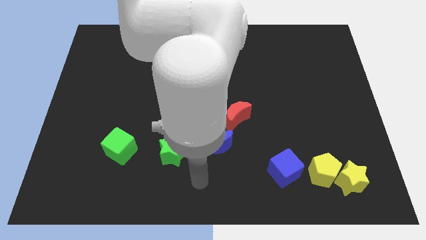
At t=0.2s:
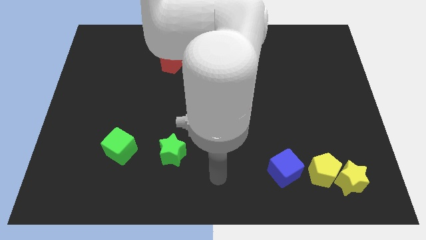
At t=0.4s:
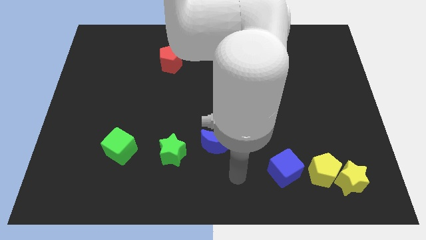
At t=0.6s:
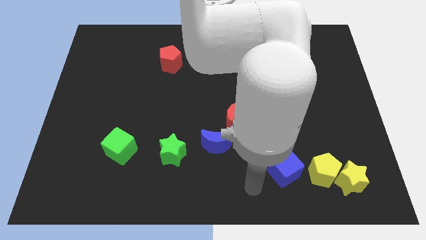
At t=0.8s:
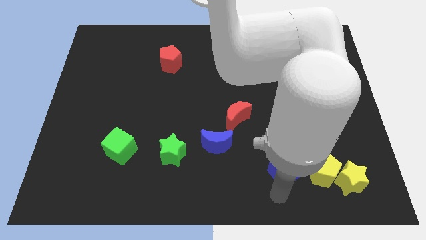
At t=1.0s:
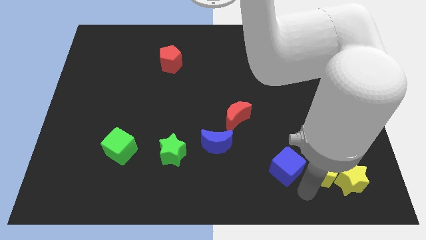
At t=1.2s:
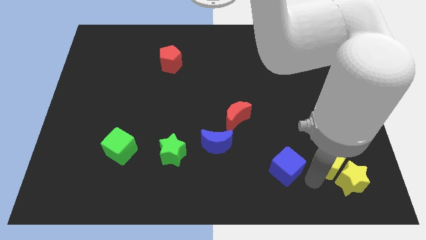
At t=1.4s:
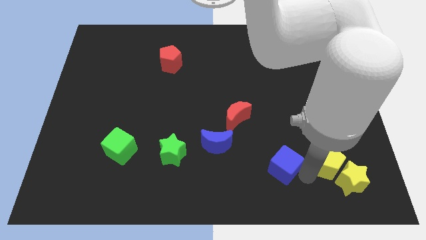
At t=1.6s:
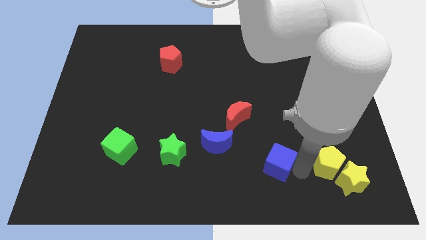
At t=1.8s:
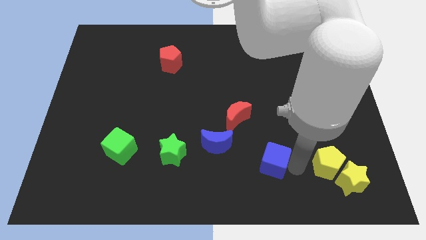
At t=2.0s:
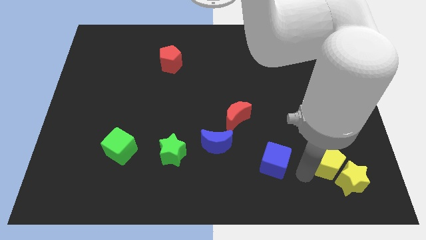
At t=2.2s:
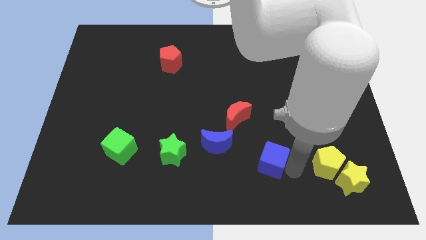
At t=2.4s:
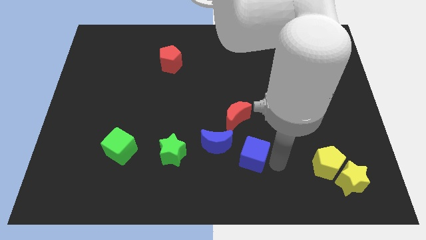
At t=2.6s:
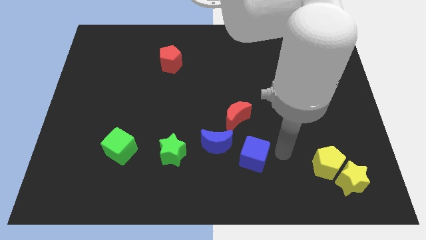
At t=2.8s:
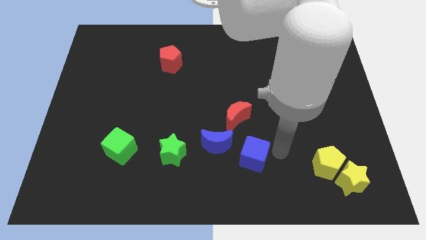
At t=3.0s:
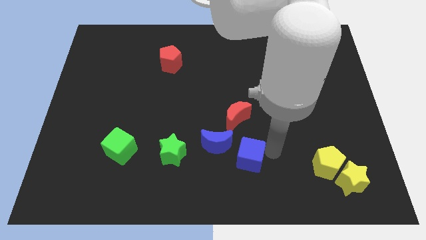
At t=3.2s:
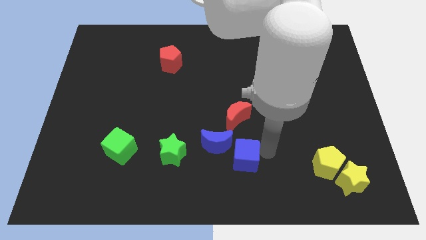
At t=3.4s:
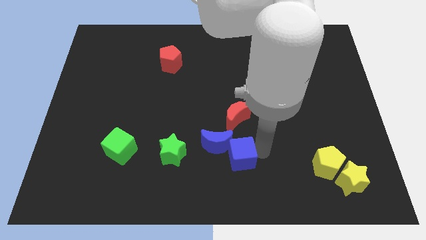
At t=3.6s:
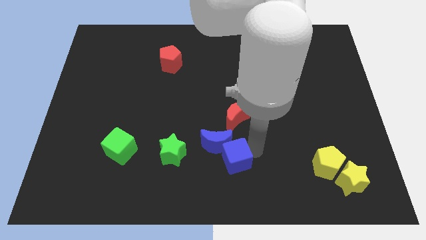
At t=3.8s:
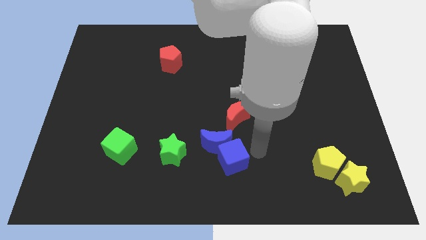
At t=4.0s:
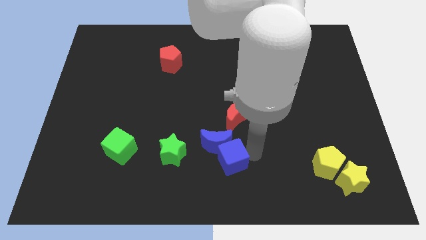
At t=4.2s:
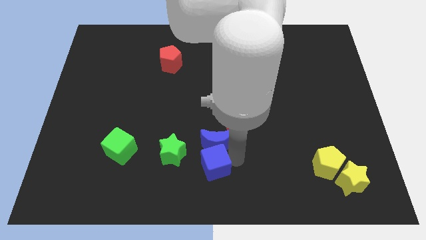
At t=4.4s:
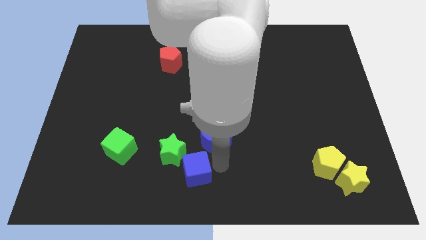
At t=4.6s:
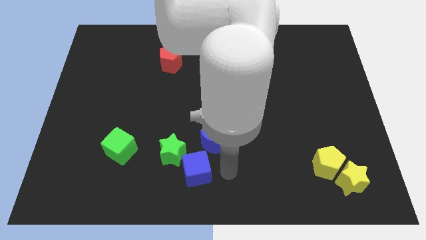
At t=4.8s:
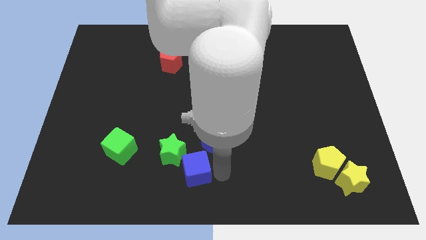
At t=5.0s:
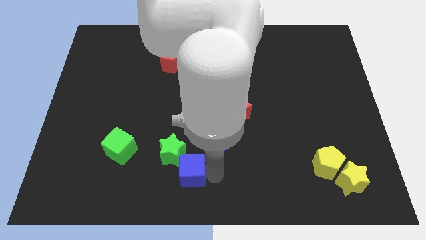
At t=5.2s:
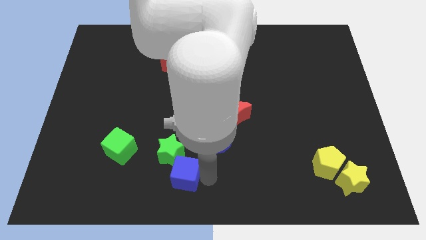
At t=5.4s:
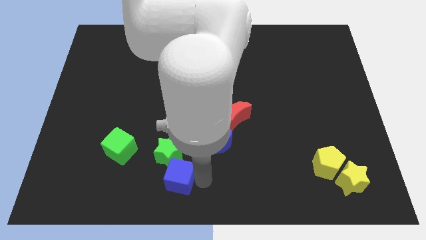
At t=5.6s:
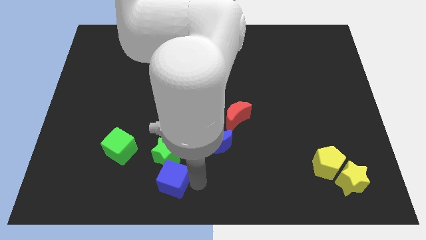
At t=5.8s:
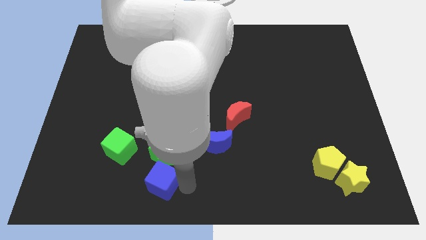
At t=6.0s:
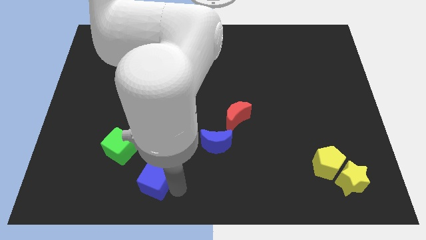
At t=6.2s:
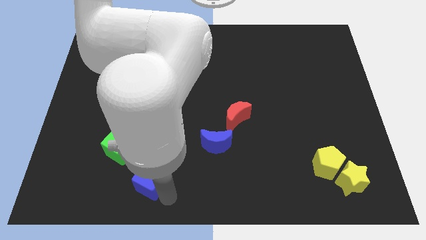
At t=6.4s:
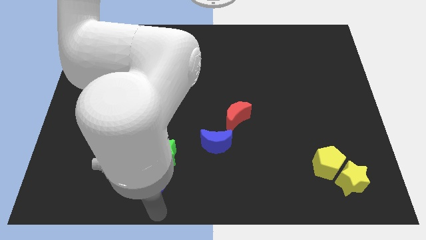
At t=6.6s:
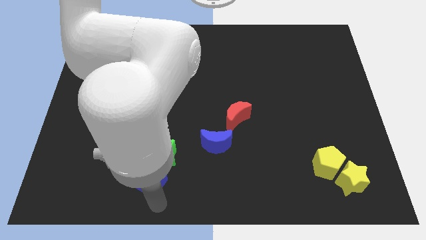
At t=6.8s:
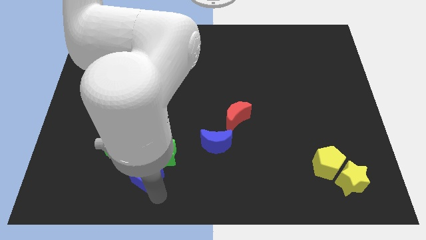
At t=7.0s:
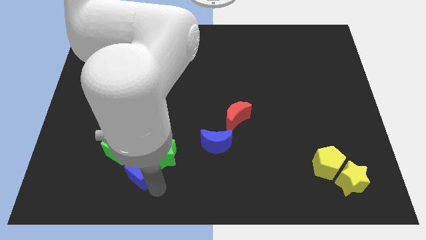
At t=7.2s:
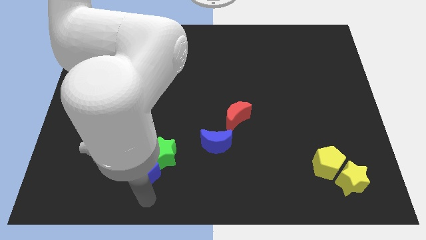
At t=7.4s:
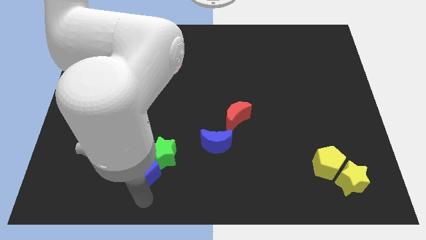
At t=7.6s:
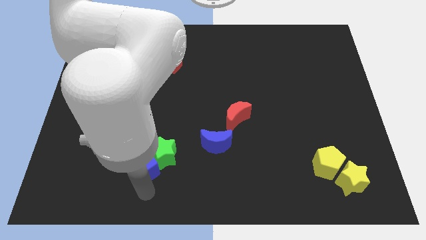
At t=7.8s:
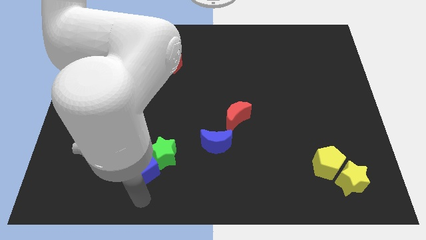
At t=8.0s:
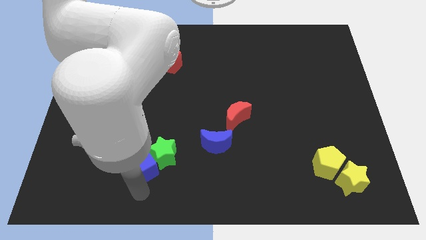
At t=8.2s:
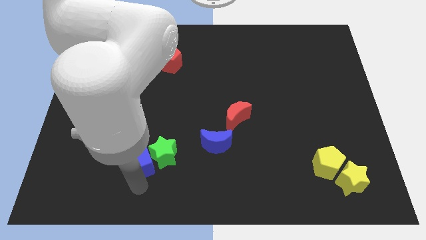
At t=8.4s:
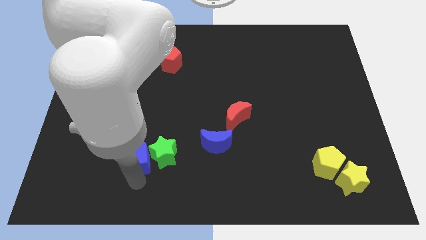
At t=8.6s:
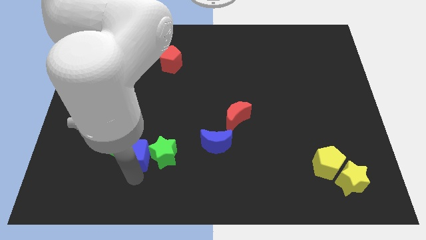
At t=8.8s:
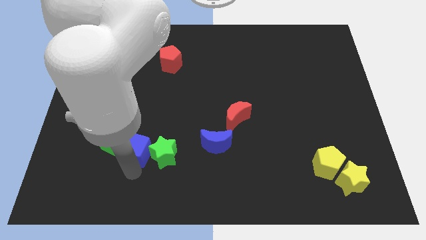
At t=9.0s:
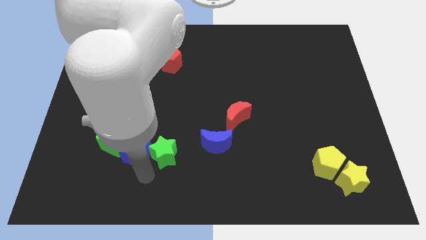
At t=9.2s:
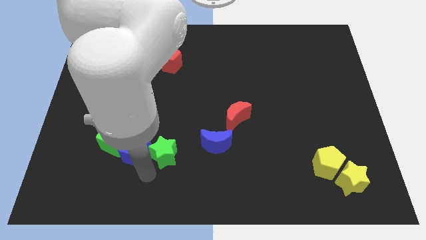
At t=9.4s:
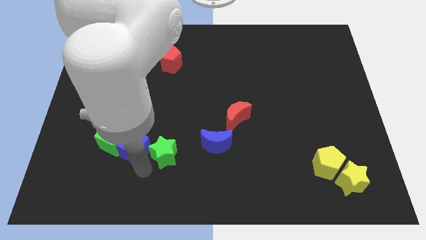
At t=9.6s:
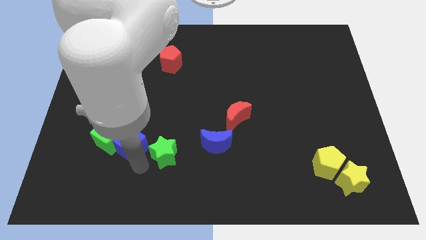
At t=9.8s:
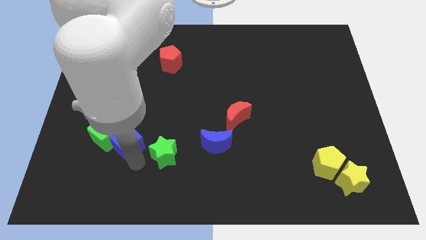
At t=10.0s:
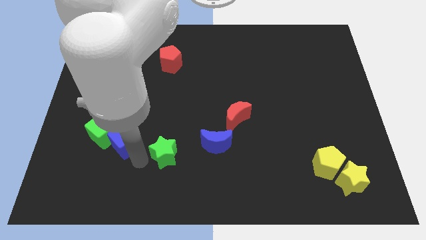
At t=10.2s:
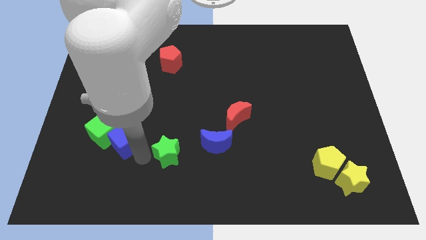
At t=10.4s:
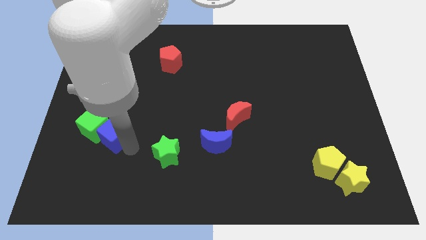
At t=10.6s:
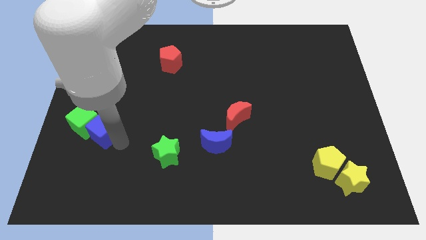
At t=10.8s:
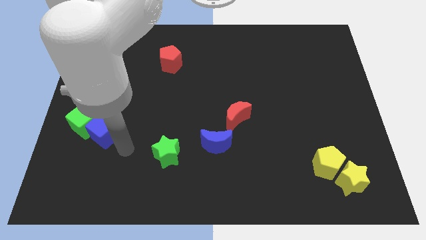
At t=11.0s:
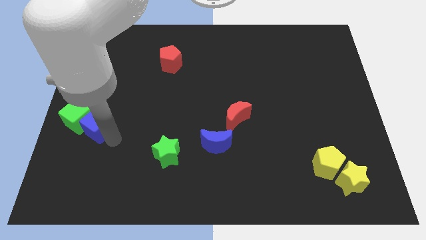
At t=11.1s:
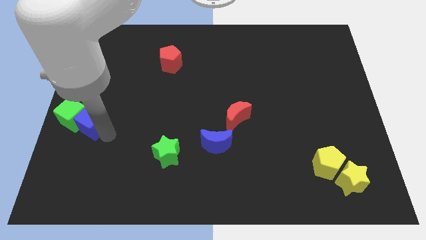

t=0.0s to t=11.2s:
move the blue cube to the left side

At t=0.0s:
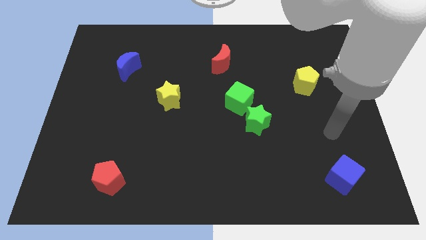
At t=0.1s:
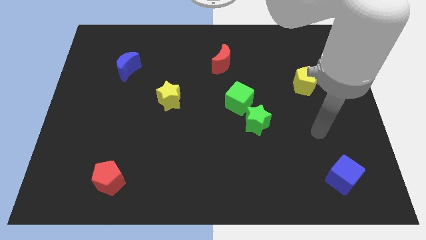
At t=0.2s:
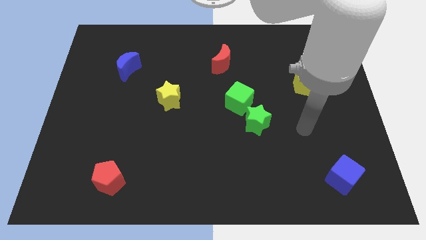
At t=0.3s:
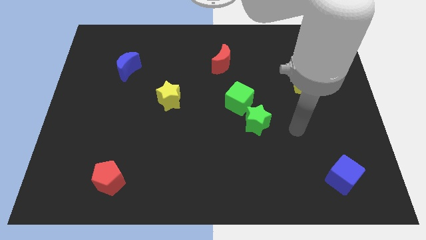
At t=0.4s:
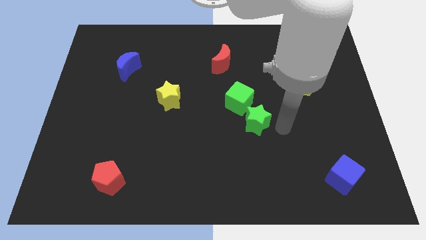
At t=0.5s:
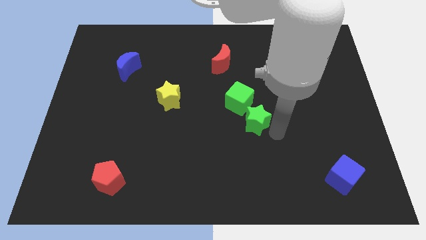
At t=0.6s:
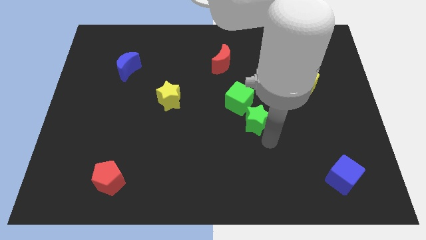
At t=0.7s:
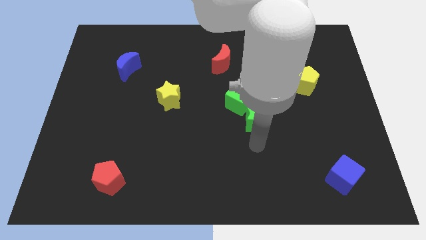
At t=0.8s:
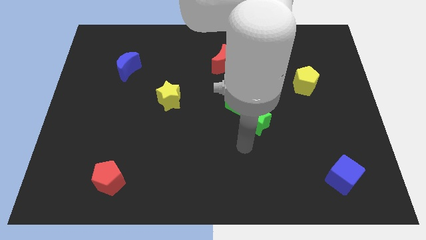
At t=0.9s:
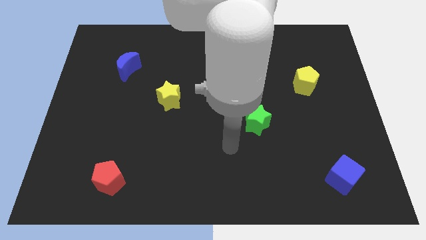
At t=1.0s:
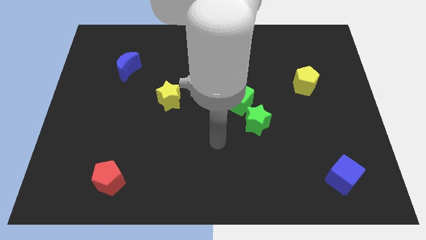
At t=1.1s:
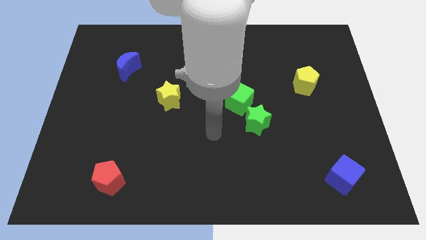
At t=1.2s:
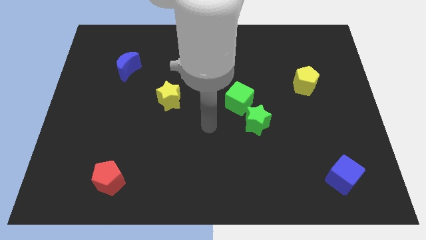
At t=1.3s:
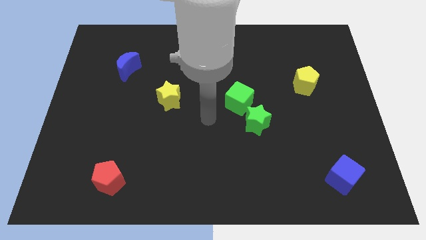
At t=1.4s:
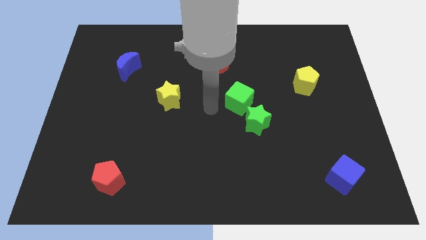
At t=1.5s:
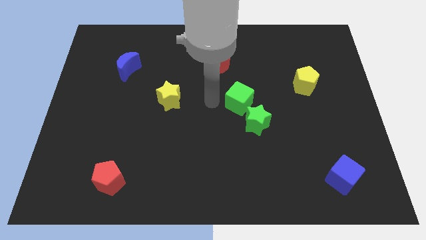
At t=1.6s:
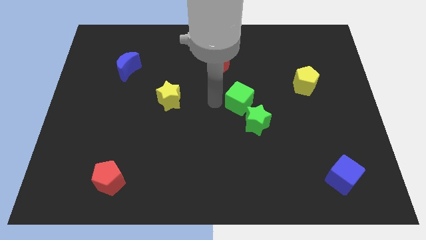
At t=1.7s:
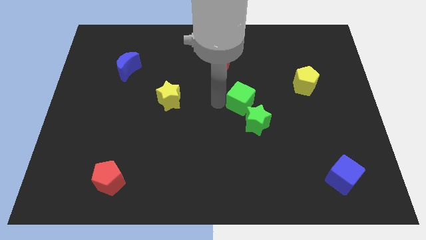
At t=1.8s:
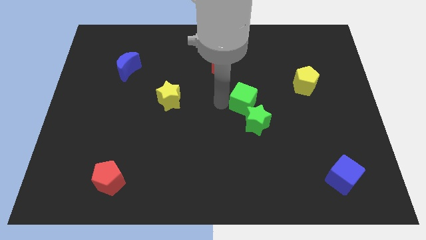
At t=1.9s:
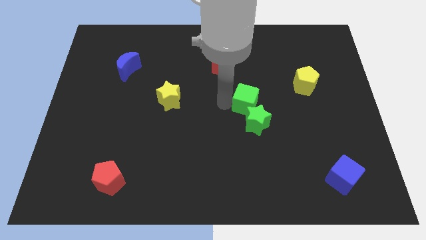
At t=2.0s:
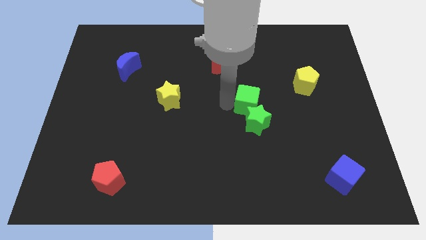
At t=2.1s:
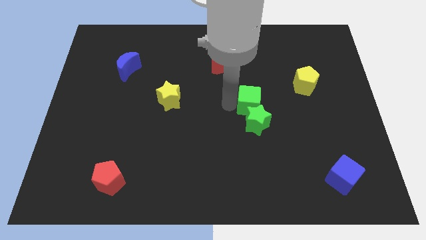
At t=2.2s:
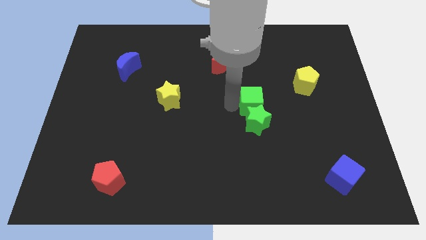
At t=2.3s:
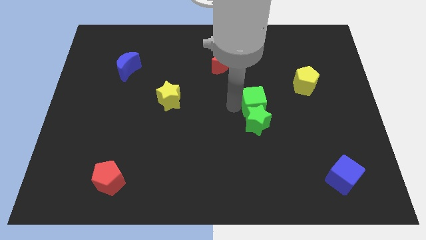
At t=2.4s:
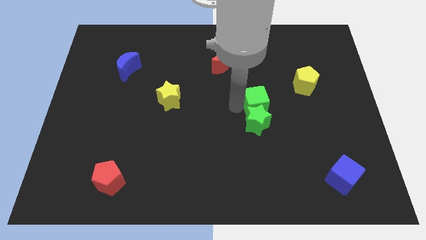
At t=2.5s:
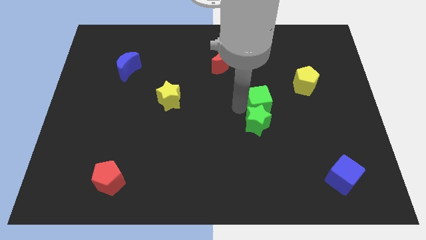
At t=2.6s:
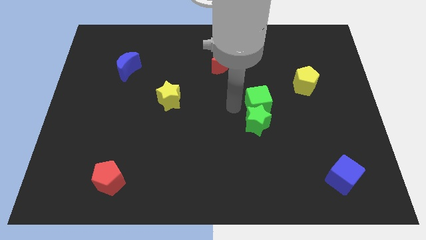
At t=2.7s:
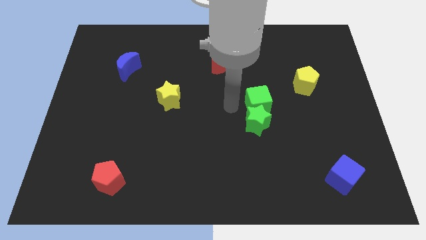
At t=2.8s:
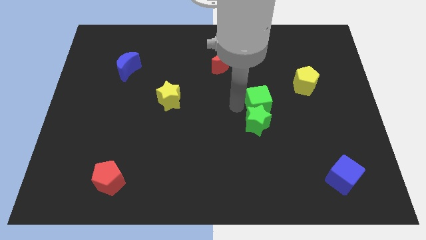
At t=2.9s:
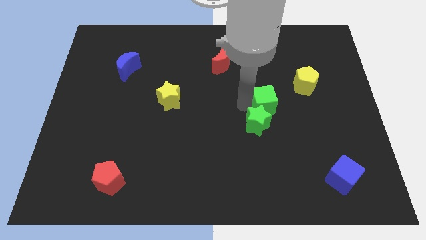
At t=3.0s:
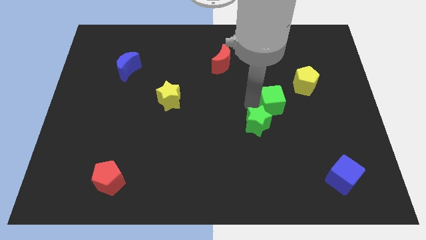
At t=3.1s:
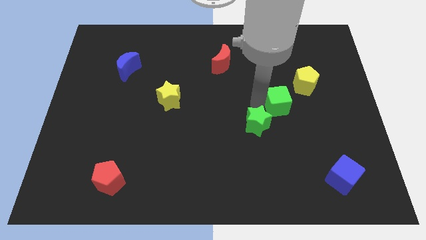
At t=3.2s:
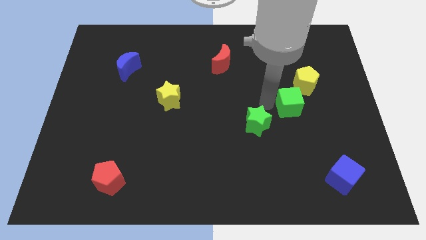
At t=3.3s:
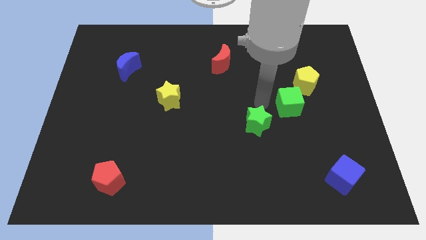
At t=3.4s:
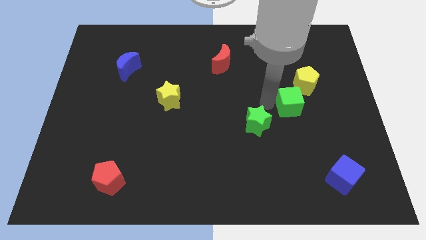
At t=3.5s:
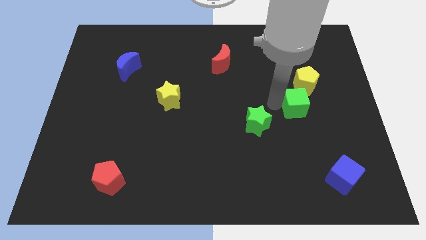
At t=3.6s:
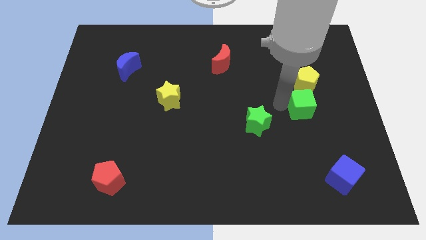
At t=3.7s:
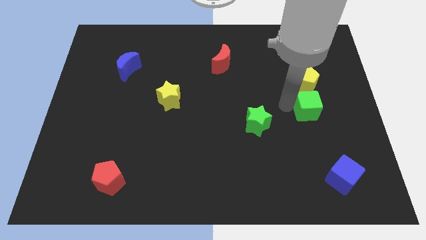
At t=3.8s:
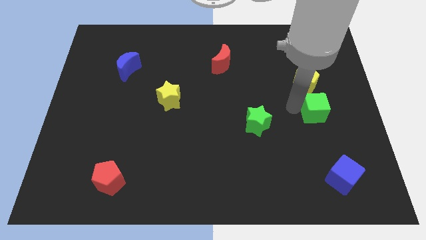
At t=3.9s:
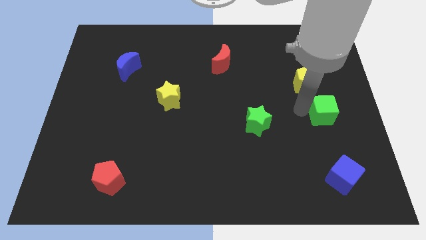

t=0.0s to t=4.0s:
push the green cube to the right side of the board
